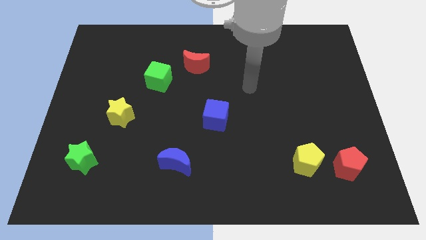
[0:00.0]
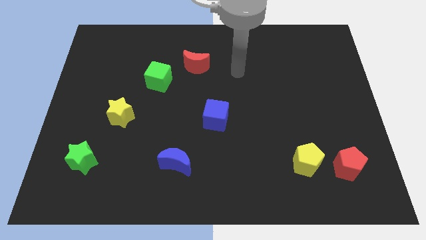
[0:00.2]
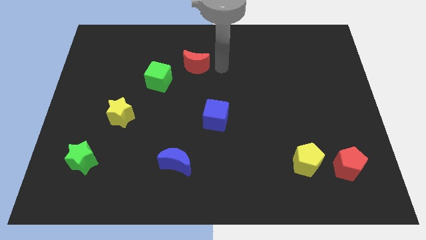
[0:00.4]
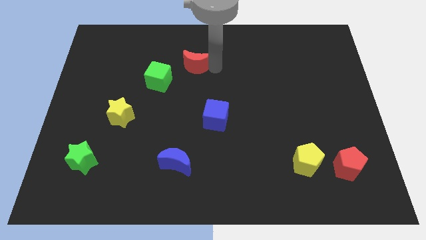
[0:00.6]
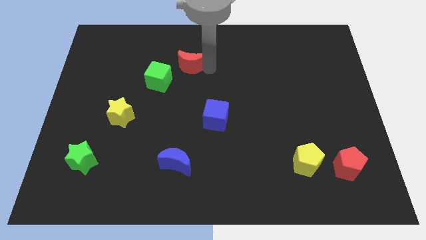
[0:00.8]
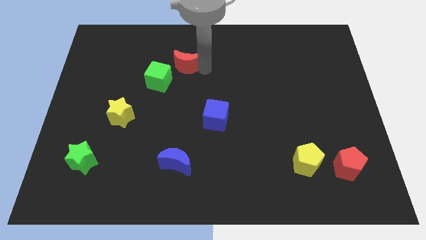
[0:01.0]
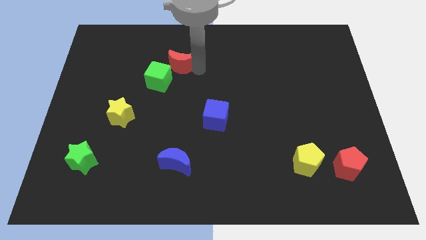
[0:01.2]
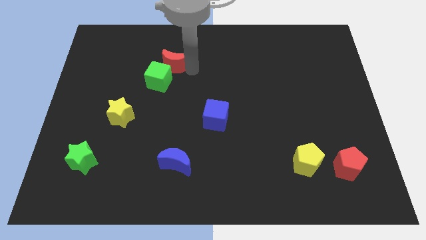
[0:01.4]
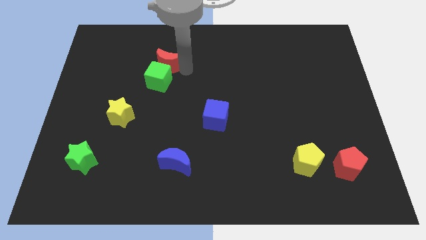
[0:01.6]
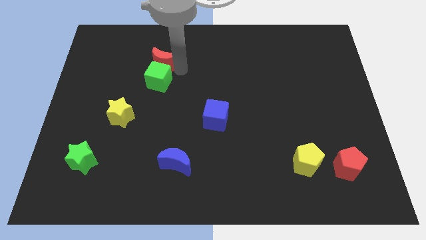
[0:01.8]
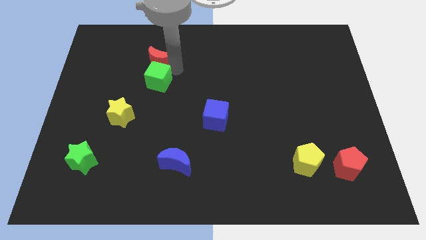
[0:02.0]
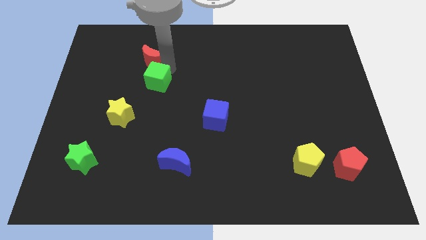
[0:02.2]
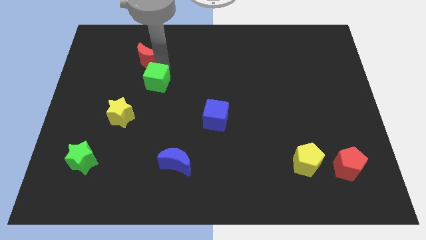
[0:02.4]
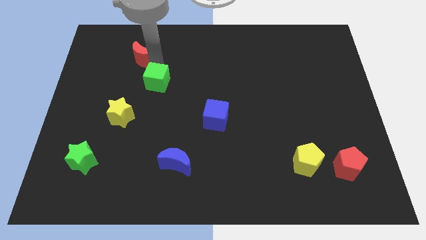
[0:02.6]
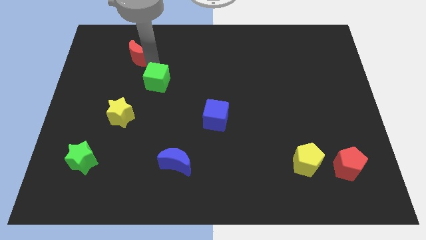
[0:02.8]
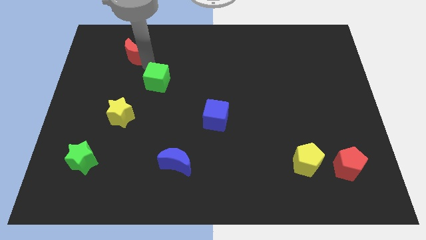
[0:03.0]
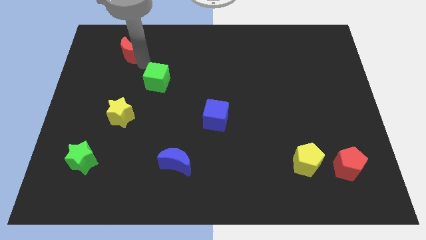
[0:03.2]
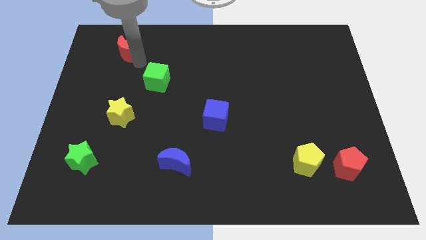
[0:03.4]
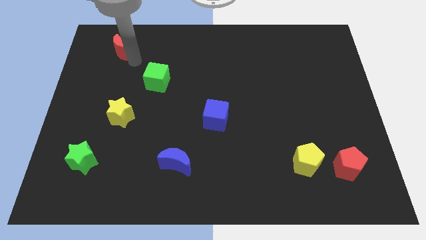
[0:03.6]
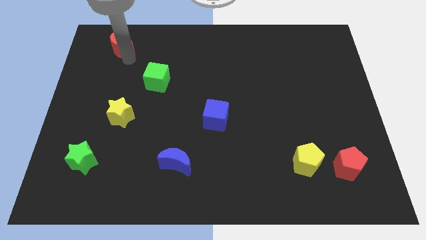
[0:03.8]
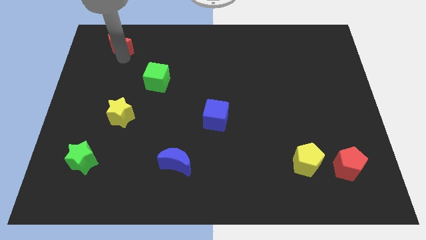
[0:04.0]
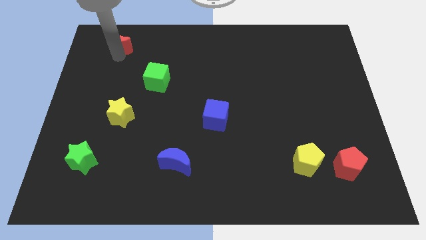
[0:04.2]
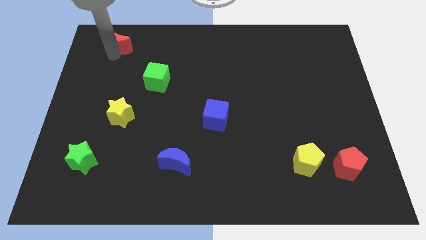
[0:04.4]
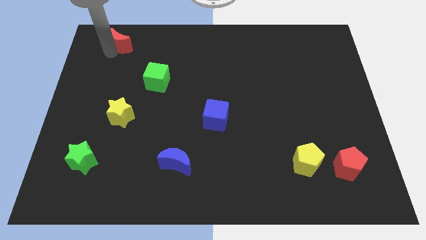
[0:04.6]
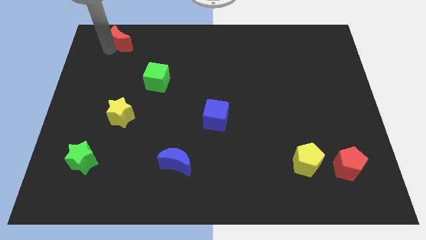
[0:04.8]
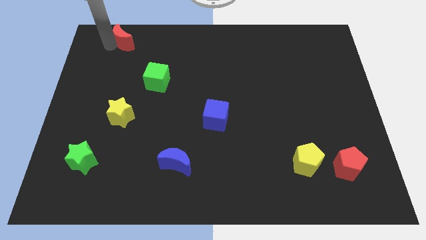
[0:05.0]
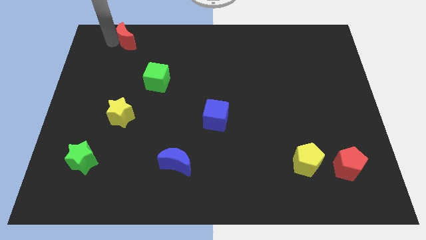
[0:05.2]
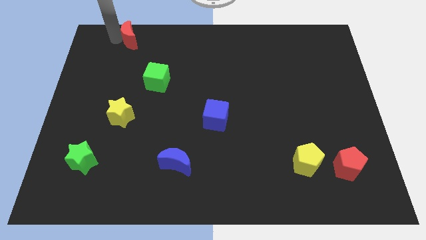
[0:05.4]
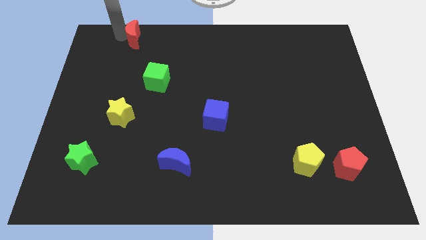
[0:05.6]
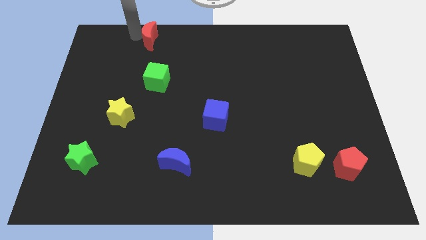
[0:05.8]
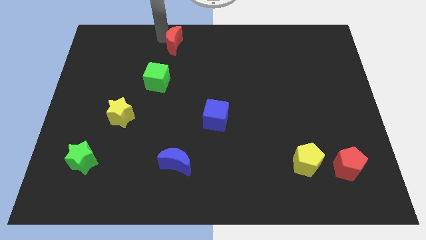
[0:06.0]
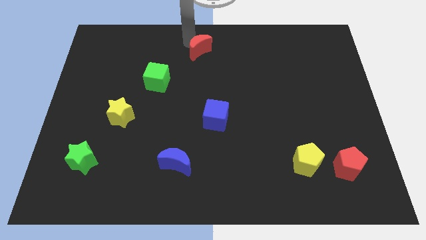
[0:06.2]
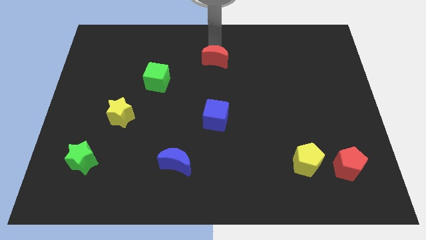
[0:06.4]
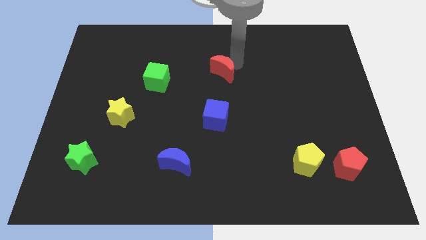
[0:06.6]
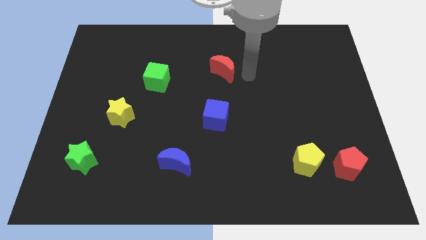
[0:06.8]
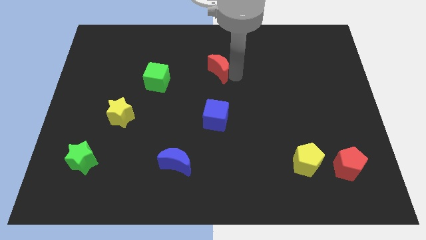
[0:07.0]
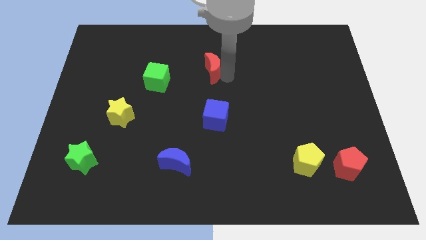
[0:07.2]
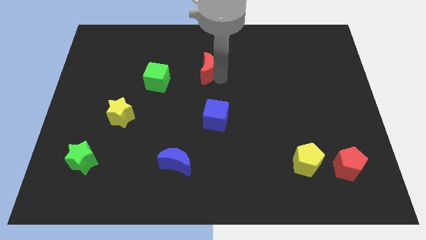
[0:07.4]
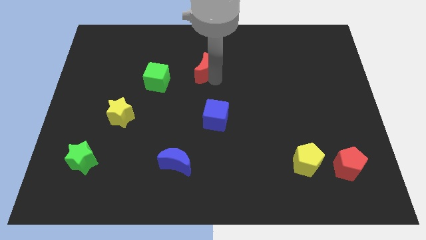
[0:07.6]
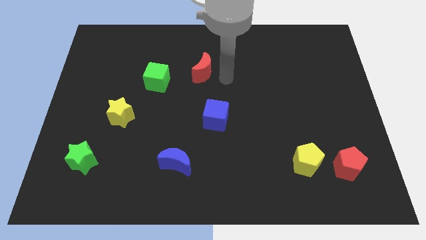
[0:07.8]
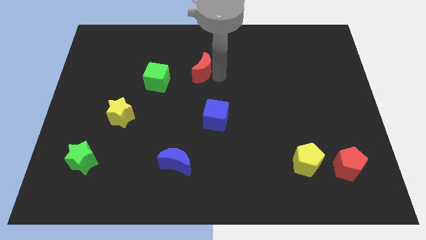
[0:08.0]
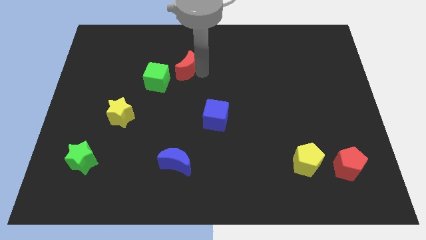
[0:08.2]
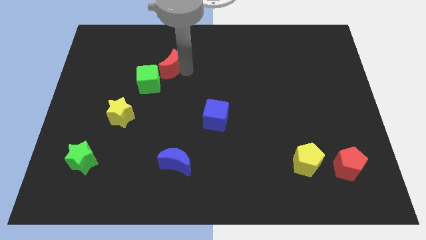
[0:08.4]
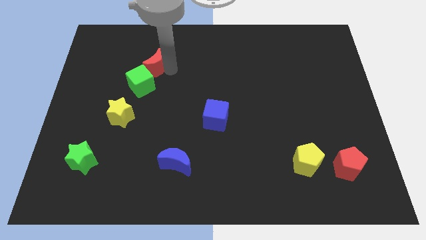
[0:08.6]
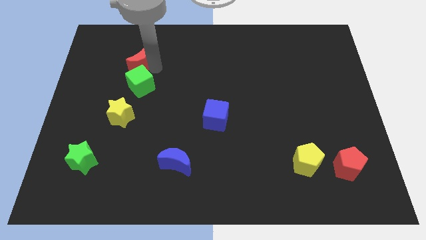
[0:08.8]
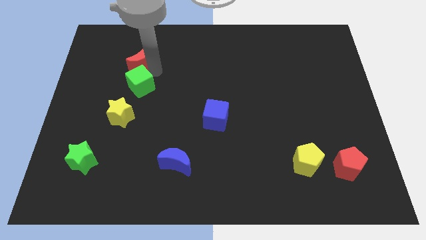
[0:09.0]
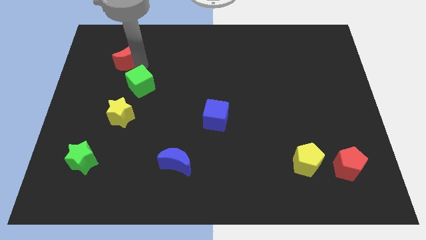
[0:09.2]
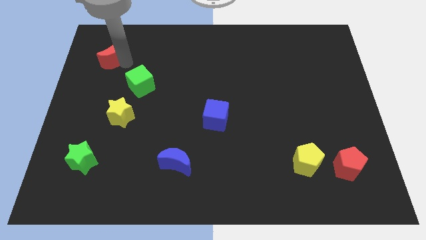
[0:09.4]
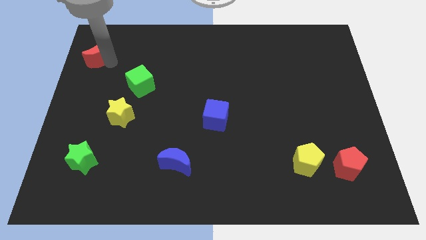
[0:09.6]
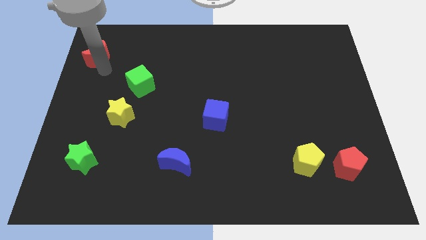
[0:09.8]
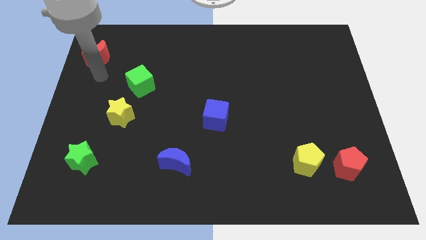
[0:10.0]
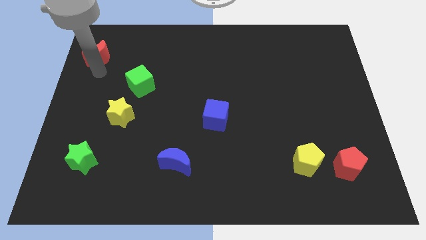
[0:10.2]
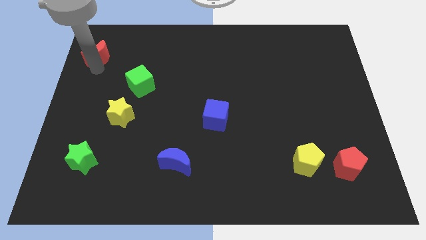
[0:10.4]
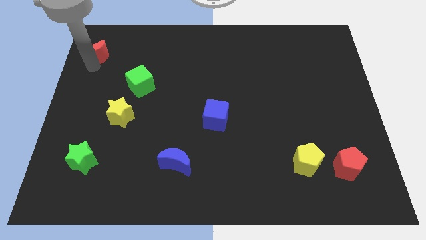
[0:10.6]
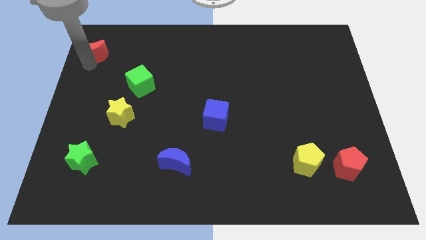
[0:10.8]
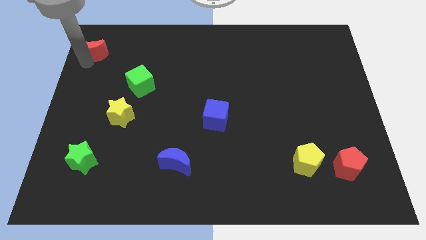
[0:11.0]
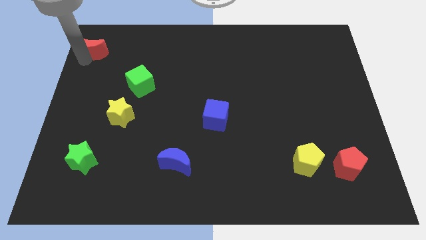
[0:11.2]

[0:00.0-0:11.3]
move the red moon to the top left corner

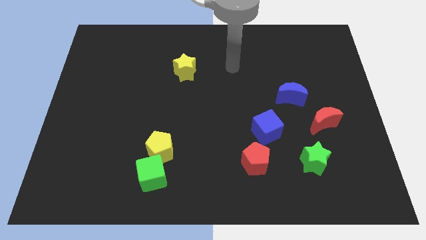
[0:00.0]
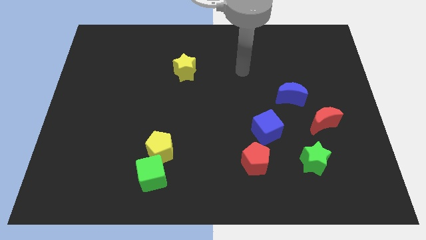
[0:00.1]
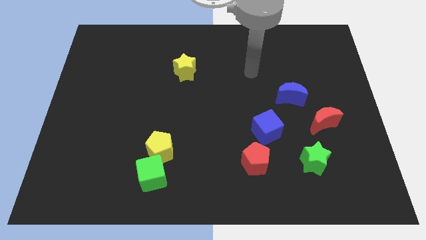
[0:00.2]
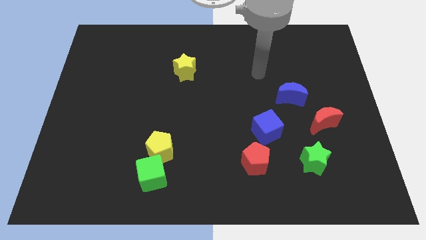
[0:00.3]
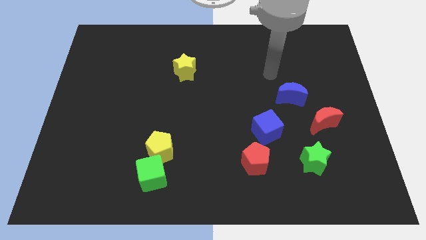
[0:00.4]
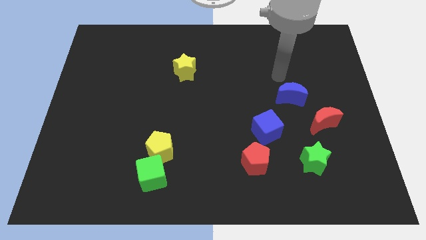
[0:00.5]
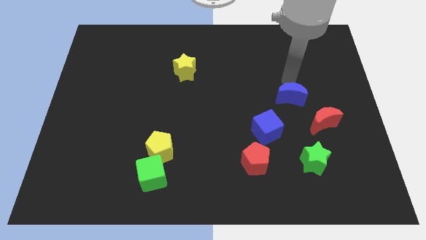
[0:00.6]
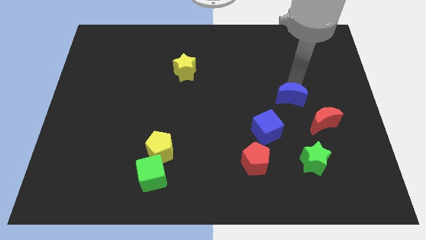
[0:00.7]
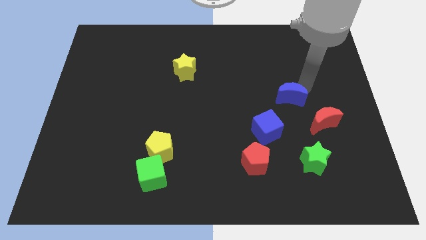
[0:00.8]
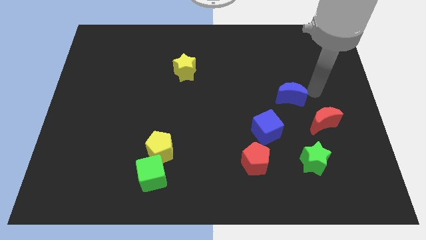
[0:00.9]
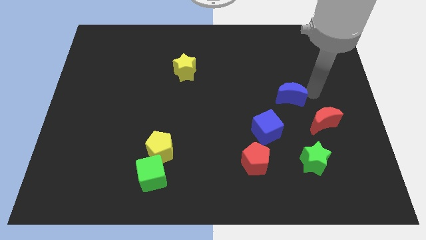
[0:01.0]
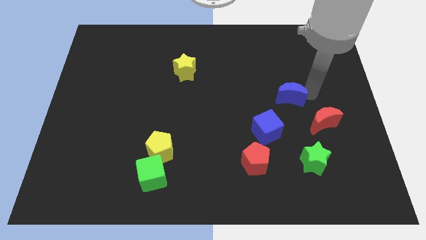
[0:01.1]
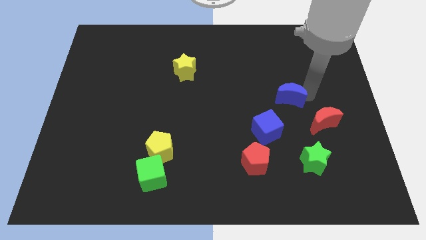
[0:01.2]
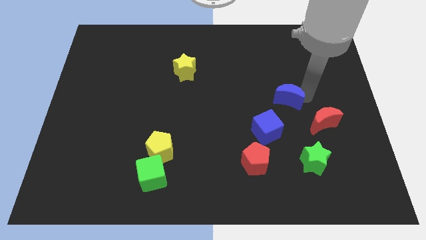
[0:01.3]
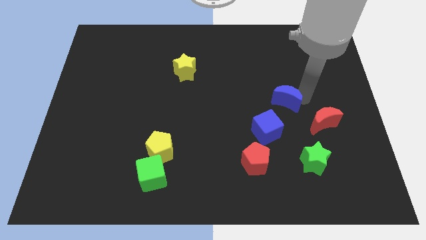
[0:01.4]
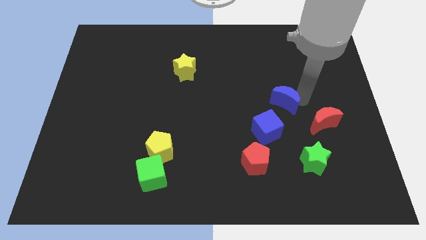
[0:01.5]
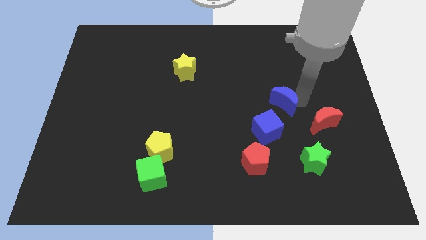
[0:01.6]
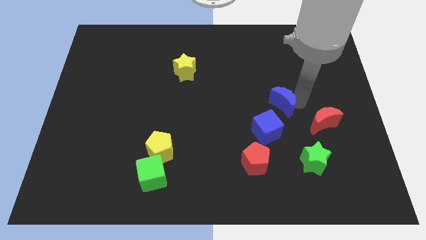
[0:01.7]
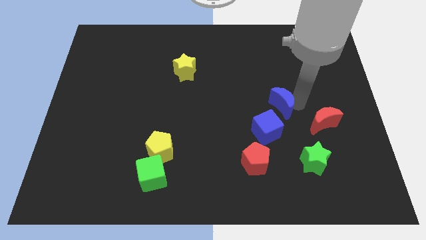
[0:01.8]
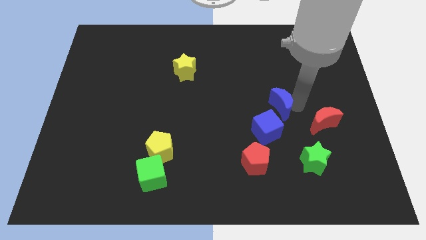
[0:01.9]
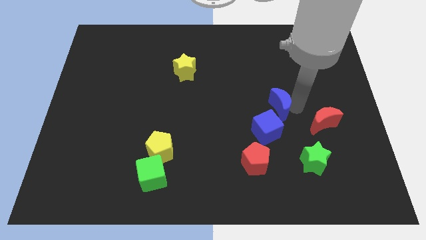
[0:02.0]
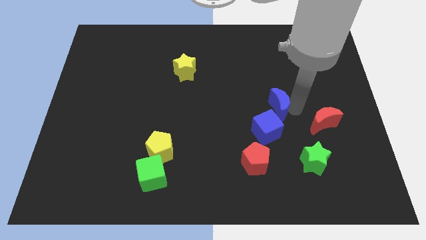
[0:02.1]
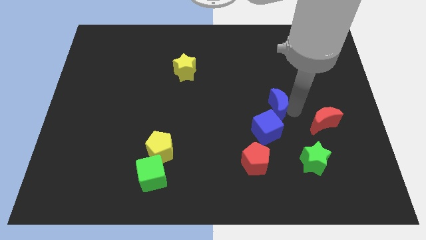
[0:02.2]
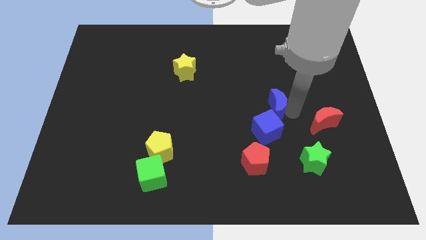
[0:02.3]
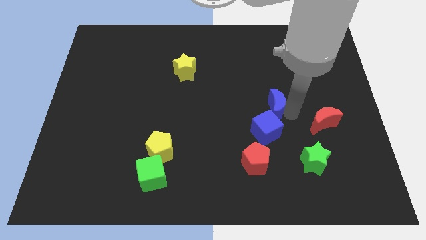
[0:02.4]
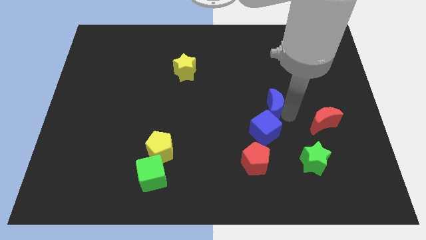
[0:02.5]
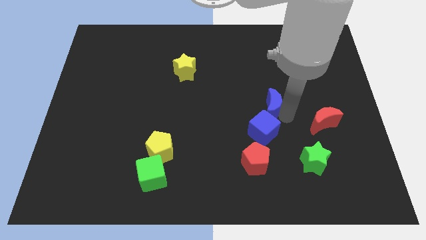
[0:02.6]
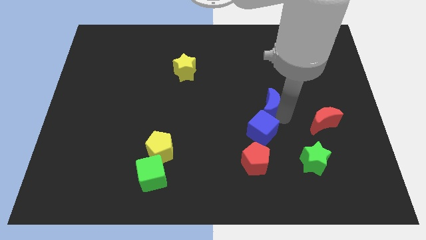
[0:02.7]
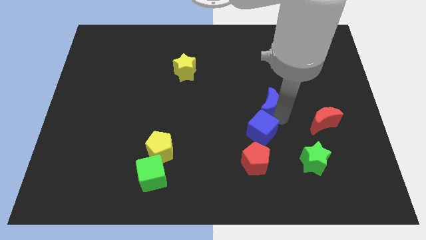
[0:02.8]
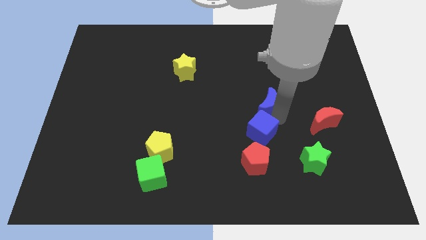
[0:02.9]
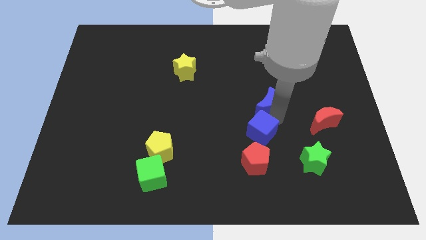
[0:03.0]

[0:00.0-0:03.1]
push the blue moon to the center
